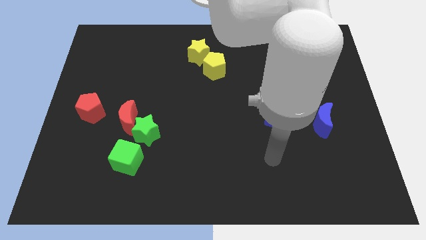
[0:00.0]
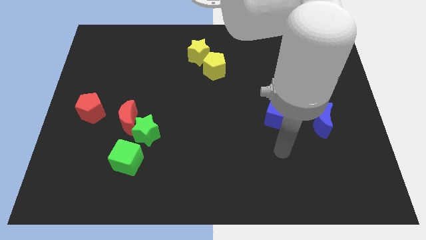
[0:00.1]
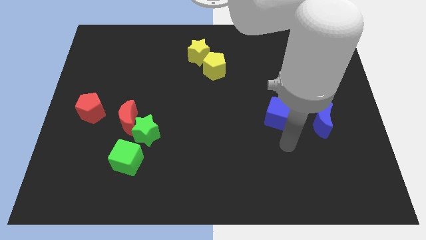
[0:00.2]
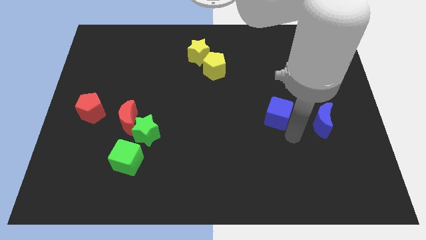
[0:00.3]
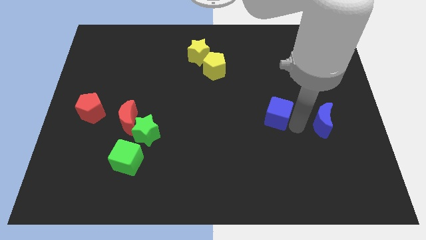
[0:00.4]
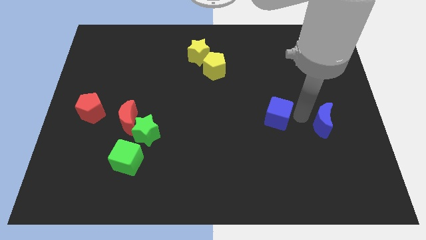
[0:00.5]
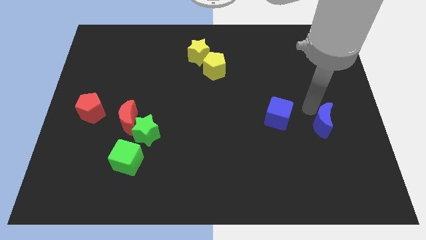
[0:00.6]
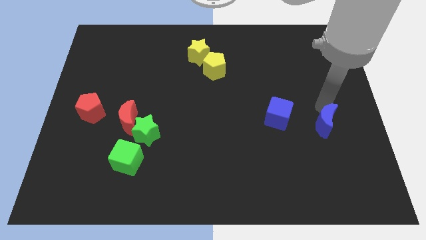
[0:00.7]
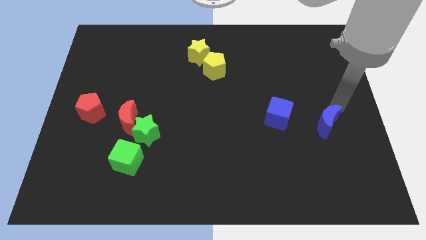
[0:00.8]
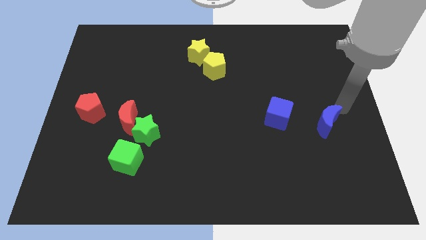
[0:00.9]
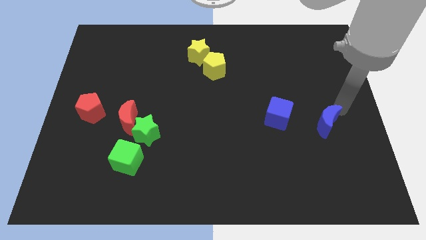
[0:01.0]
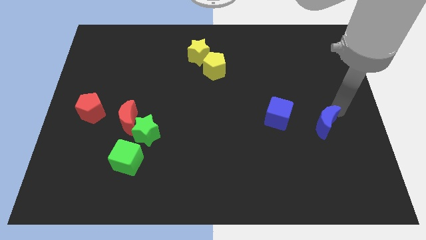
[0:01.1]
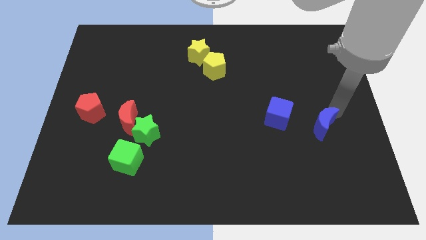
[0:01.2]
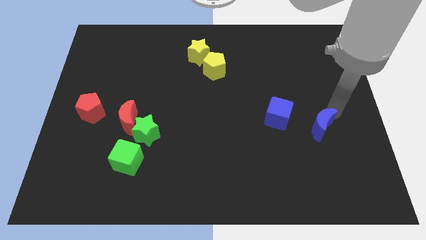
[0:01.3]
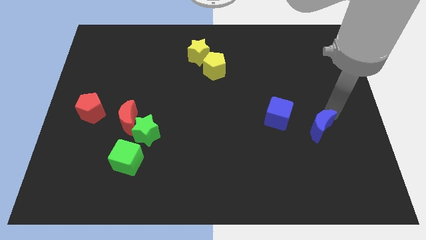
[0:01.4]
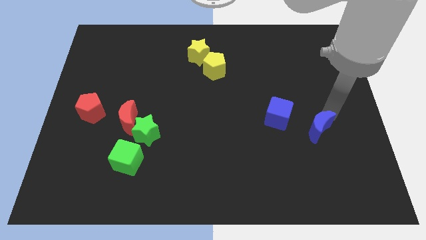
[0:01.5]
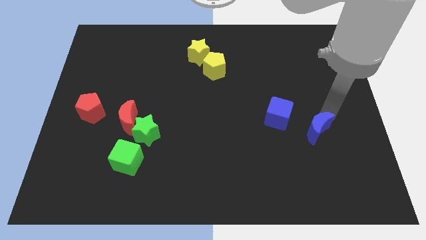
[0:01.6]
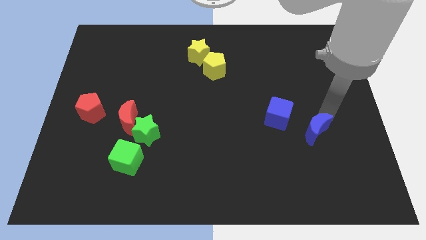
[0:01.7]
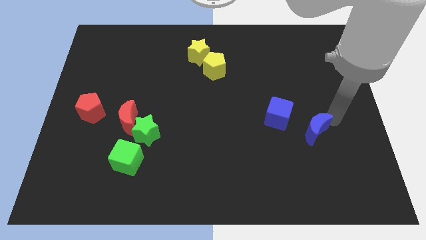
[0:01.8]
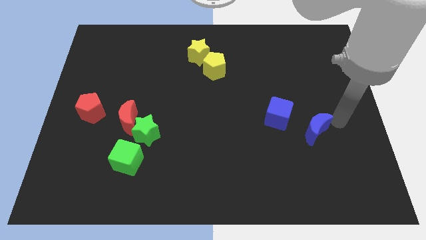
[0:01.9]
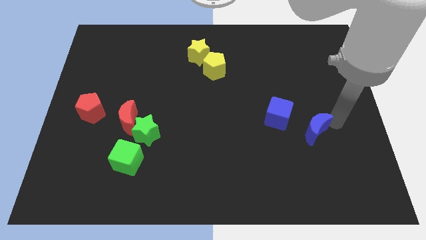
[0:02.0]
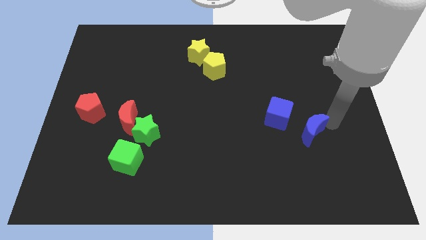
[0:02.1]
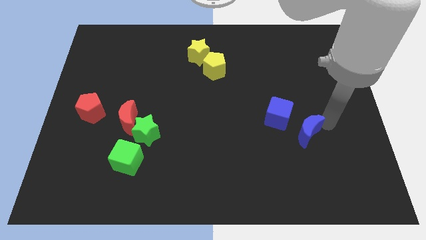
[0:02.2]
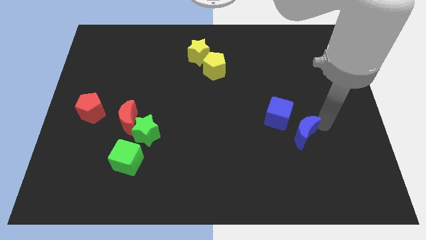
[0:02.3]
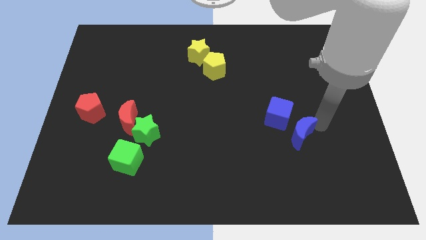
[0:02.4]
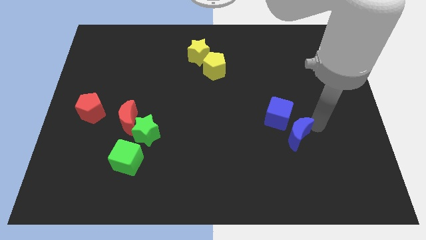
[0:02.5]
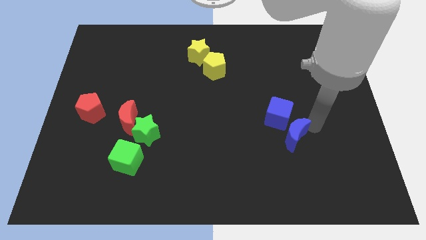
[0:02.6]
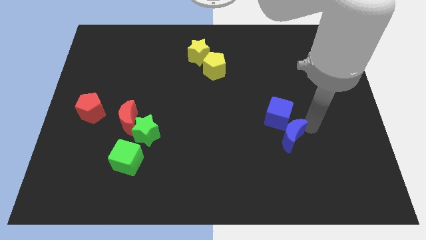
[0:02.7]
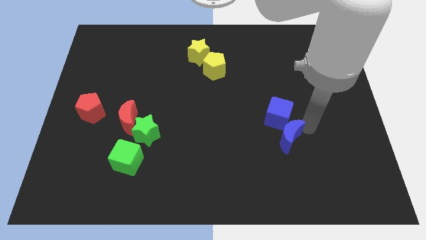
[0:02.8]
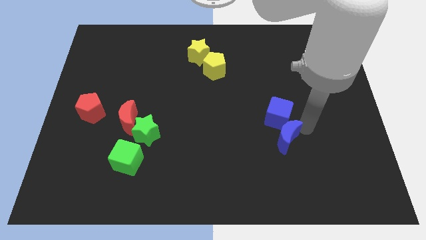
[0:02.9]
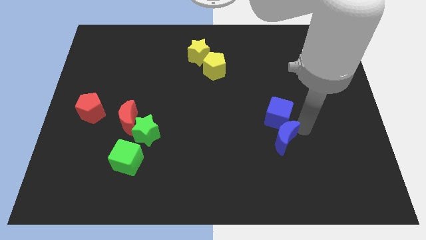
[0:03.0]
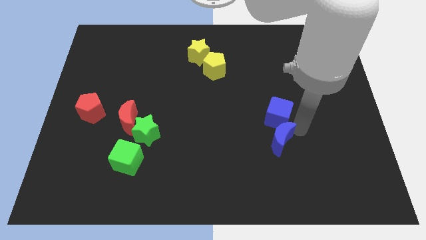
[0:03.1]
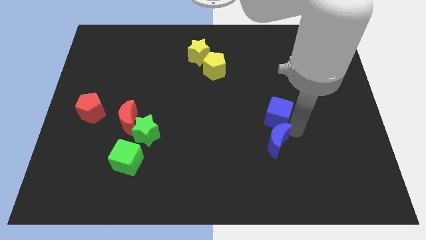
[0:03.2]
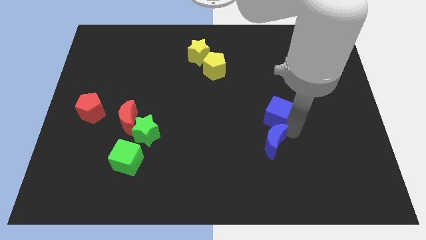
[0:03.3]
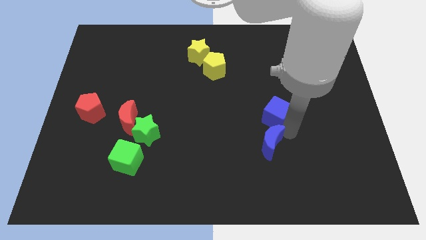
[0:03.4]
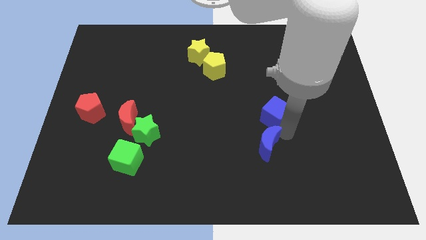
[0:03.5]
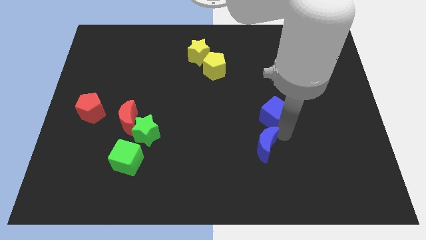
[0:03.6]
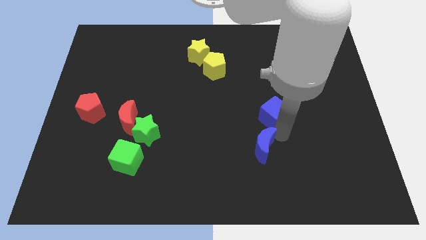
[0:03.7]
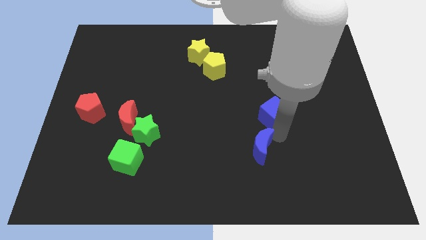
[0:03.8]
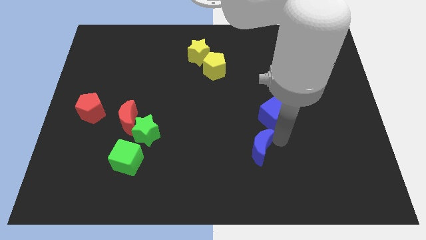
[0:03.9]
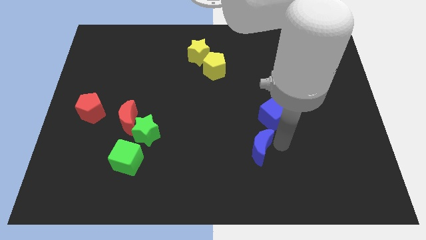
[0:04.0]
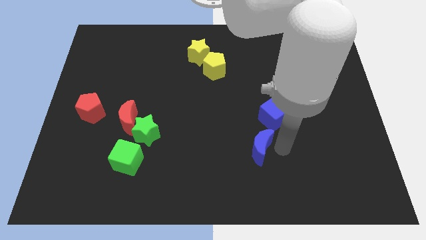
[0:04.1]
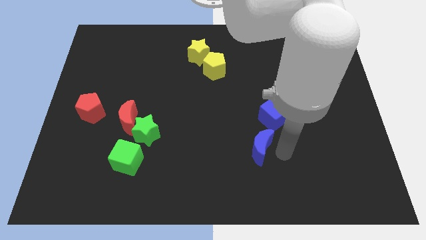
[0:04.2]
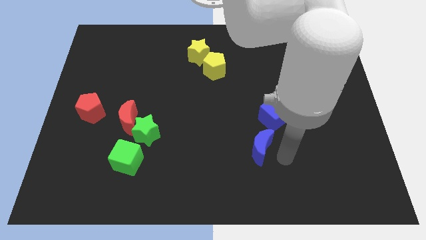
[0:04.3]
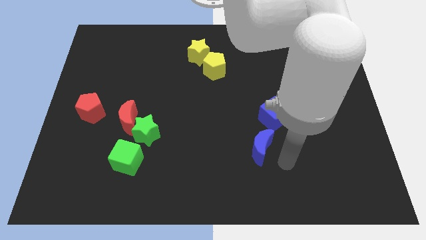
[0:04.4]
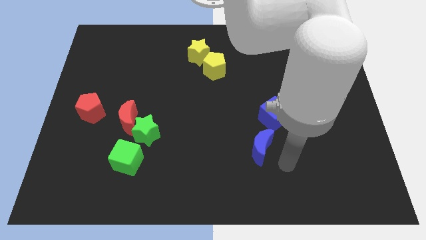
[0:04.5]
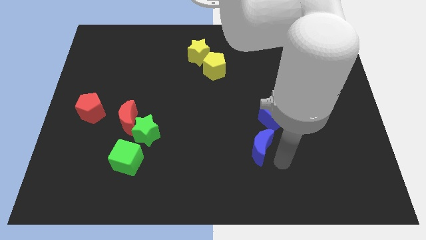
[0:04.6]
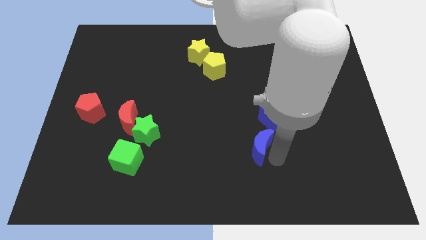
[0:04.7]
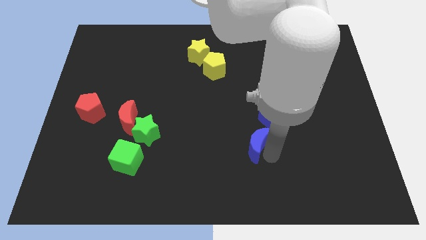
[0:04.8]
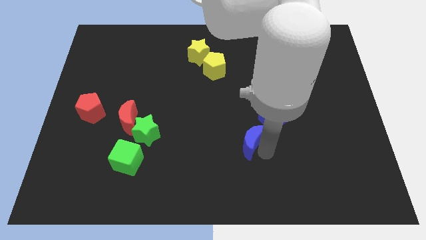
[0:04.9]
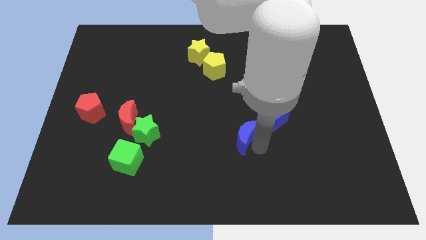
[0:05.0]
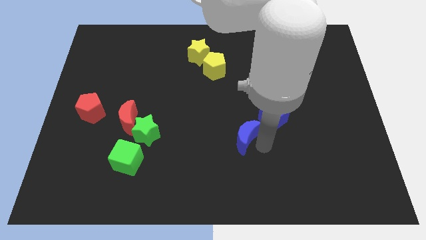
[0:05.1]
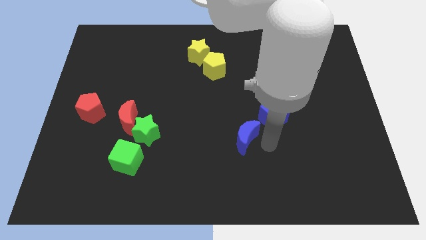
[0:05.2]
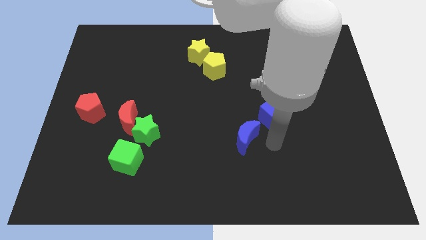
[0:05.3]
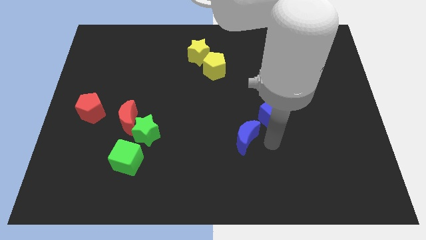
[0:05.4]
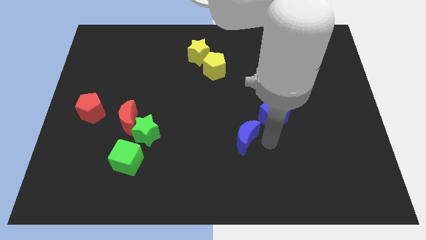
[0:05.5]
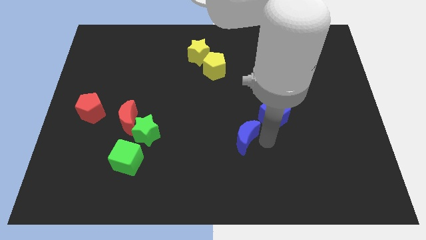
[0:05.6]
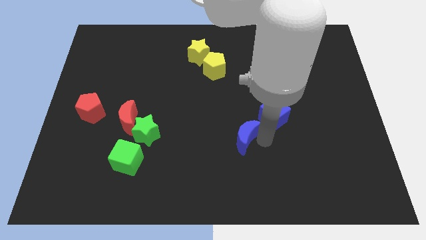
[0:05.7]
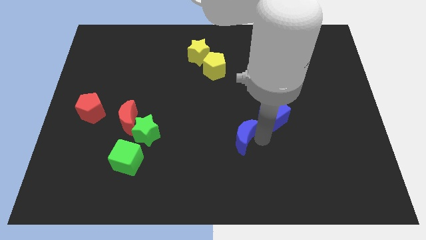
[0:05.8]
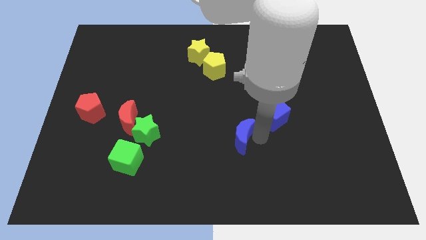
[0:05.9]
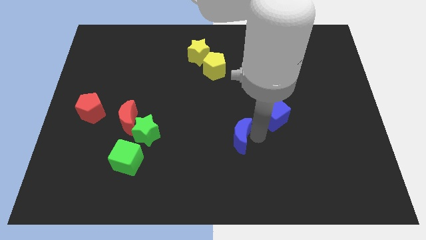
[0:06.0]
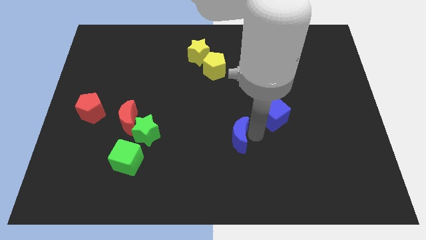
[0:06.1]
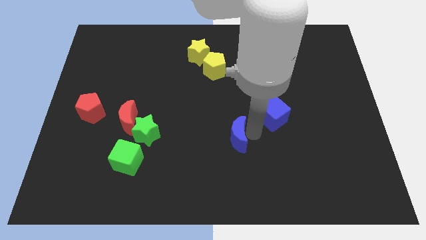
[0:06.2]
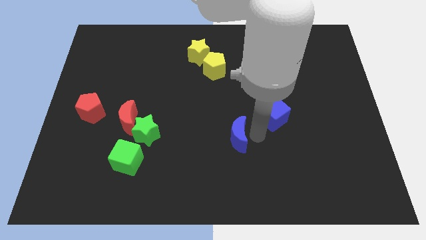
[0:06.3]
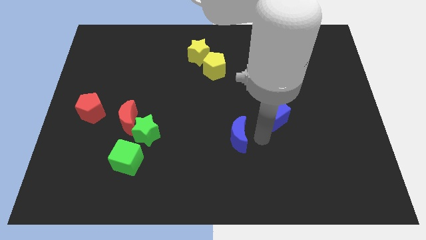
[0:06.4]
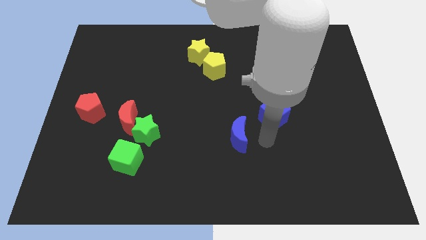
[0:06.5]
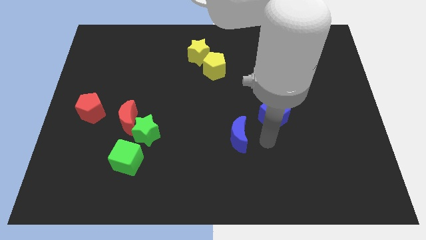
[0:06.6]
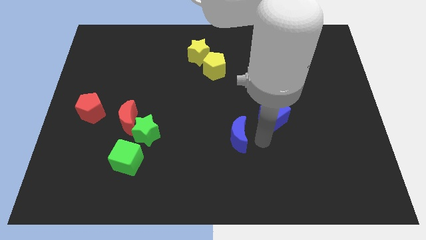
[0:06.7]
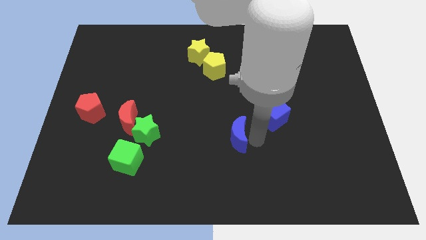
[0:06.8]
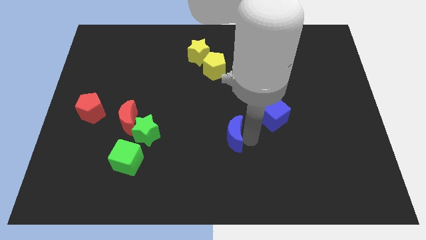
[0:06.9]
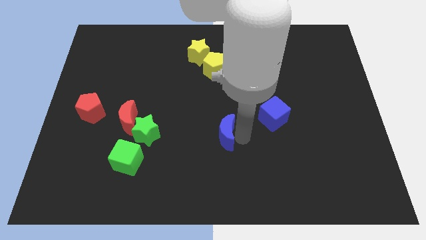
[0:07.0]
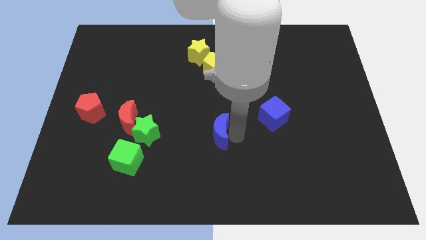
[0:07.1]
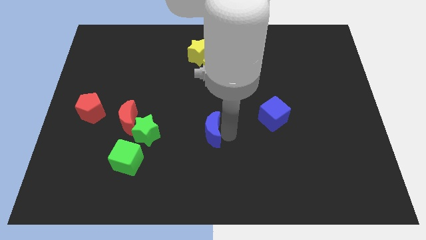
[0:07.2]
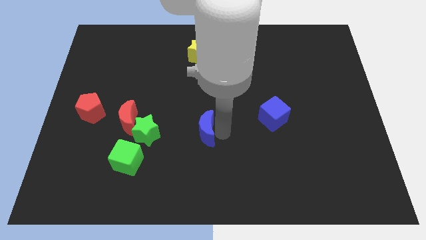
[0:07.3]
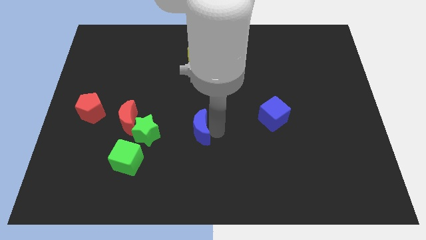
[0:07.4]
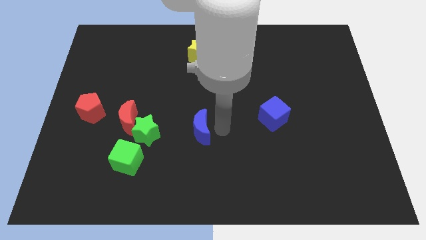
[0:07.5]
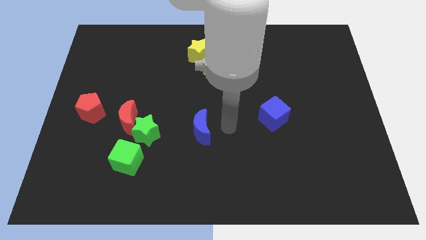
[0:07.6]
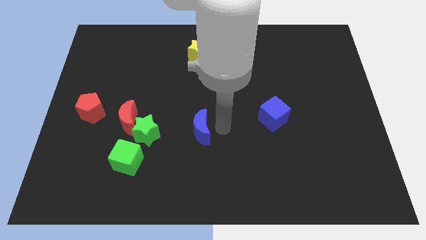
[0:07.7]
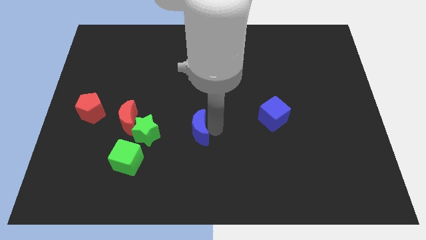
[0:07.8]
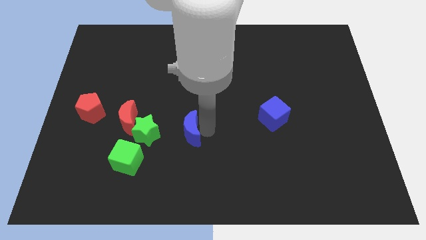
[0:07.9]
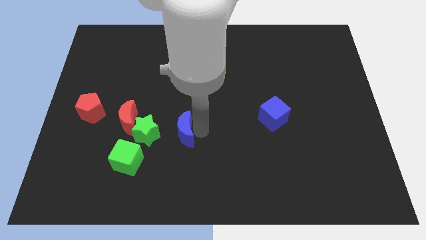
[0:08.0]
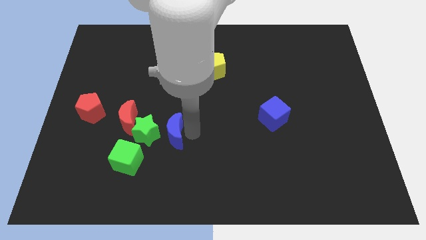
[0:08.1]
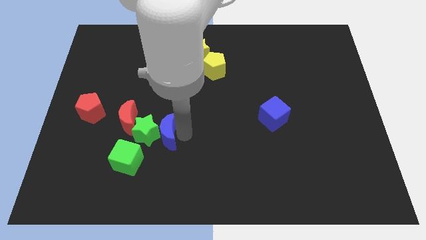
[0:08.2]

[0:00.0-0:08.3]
push the blue moon next to the green star
